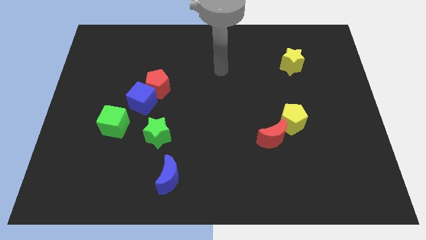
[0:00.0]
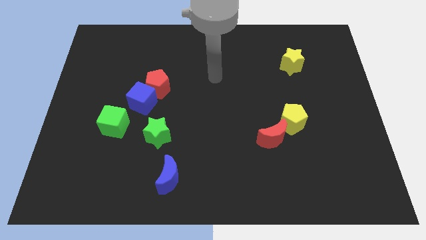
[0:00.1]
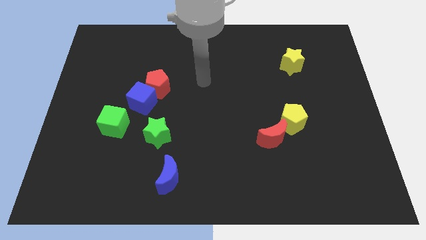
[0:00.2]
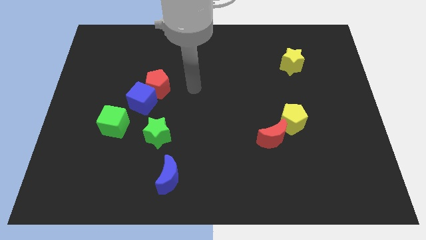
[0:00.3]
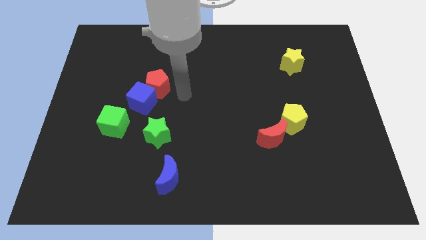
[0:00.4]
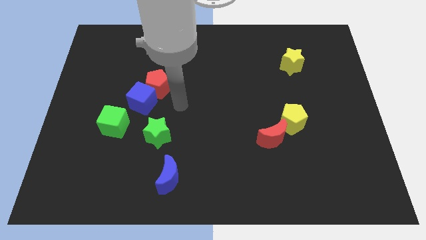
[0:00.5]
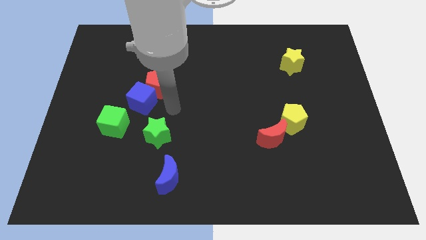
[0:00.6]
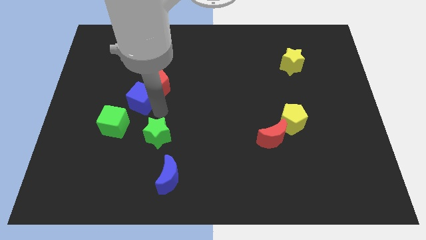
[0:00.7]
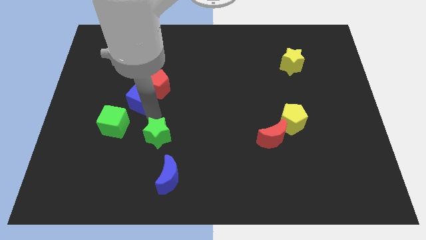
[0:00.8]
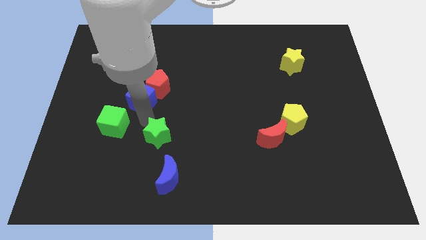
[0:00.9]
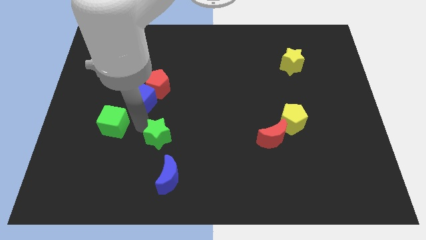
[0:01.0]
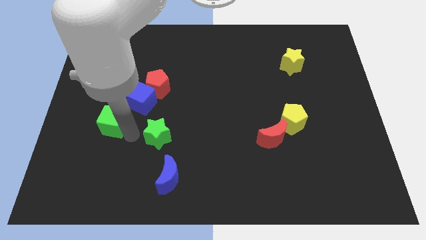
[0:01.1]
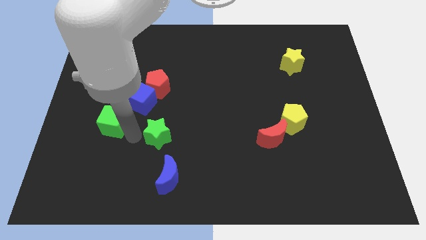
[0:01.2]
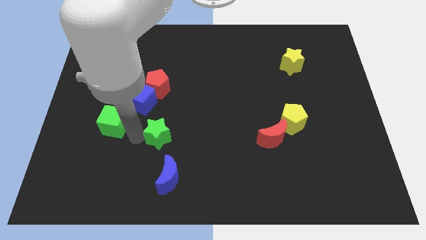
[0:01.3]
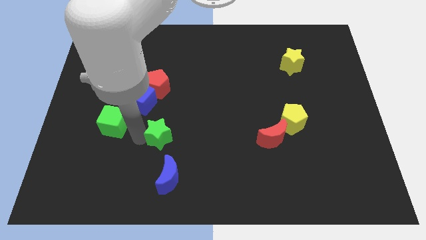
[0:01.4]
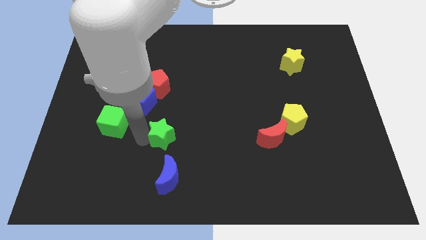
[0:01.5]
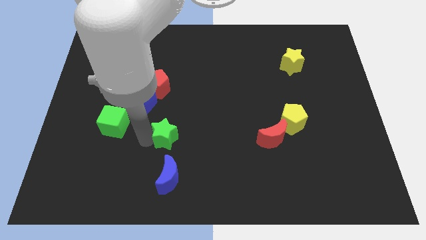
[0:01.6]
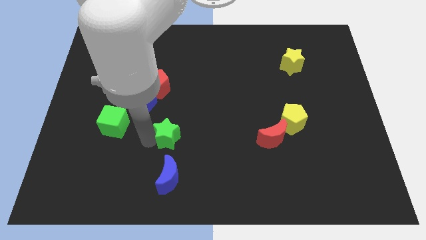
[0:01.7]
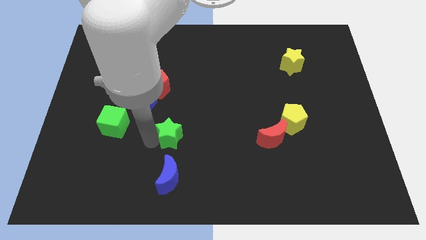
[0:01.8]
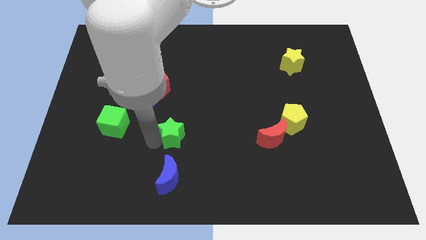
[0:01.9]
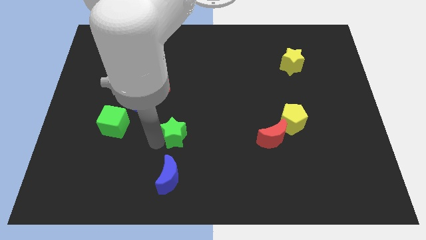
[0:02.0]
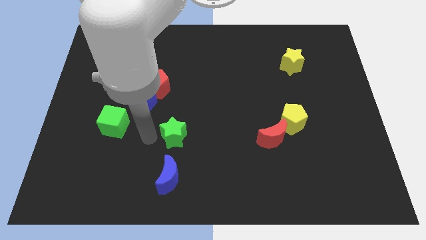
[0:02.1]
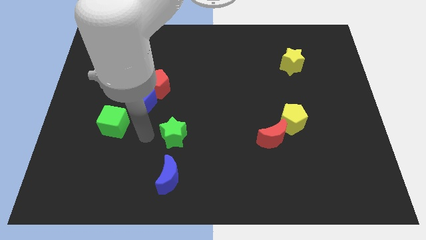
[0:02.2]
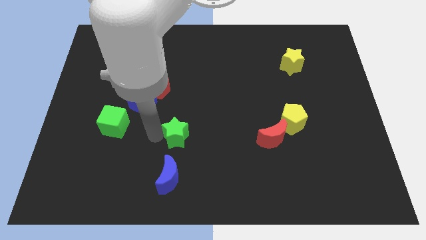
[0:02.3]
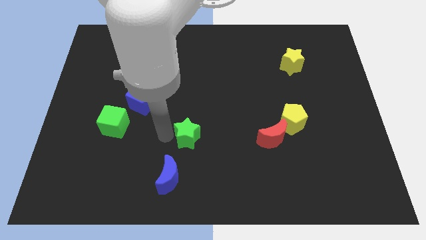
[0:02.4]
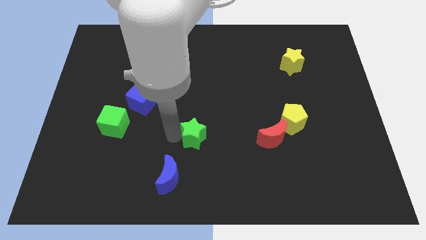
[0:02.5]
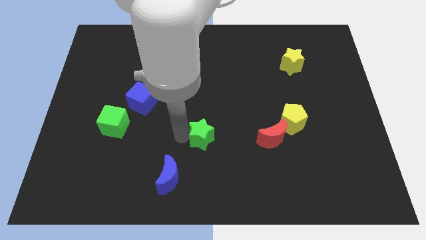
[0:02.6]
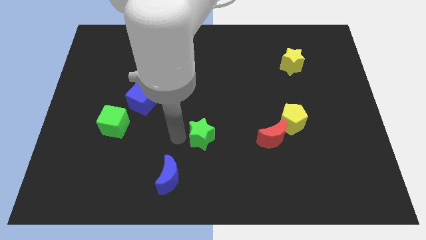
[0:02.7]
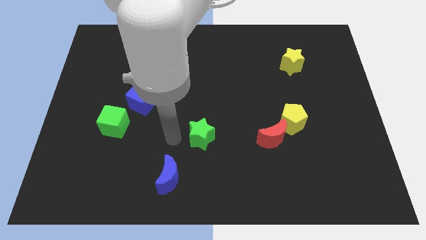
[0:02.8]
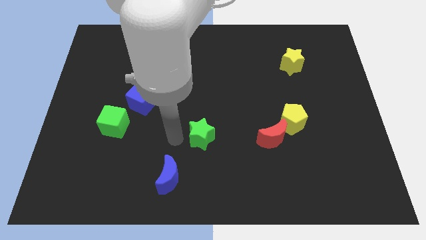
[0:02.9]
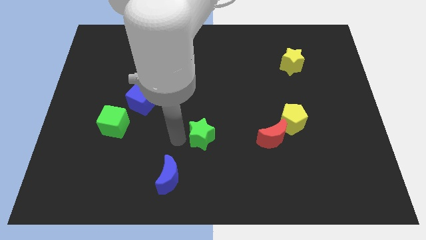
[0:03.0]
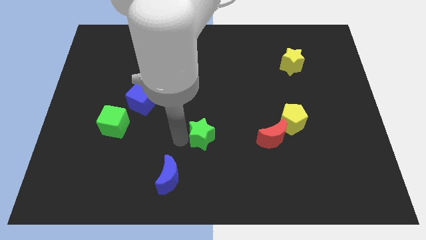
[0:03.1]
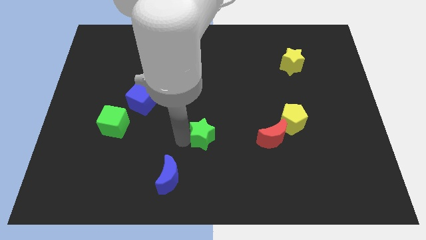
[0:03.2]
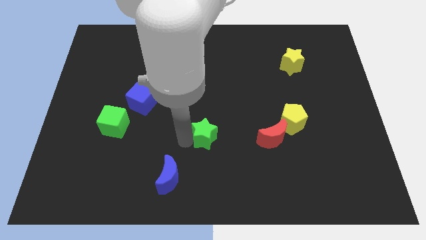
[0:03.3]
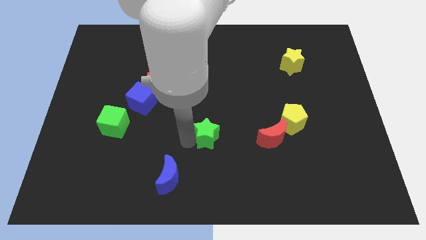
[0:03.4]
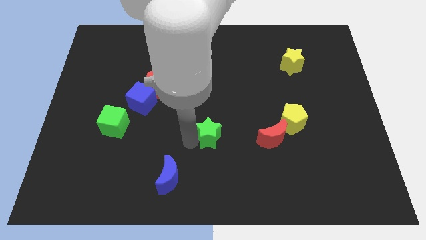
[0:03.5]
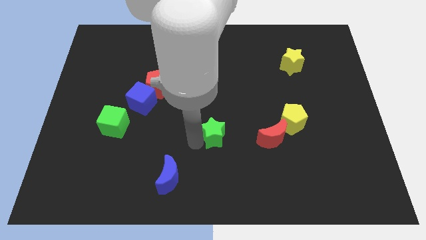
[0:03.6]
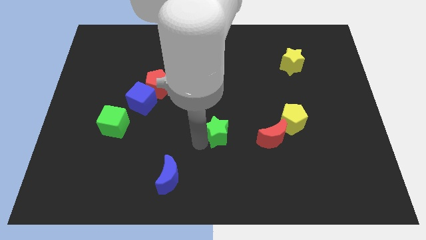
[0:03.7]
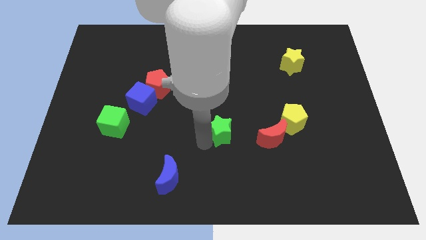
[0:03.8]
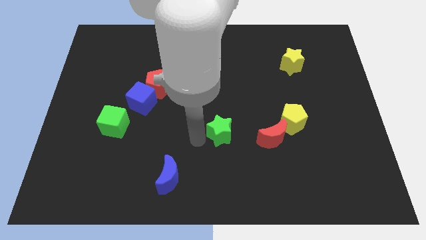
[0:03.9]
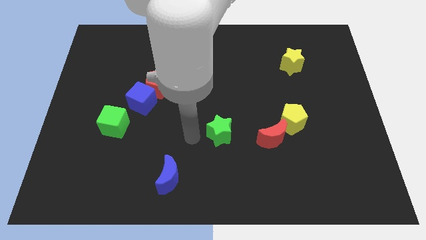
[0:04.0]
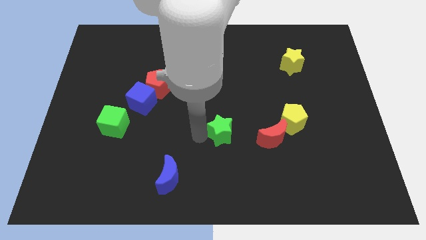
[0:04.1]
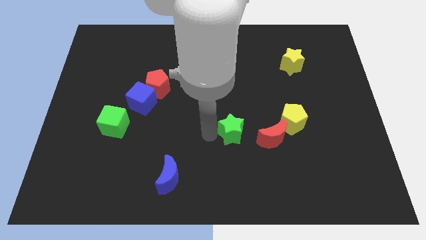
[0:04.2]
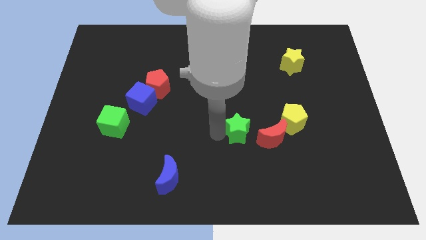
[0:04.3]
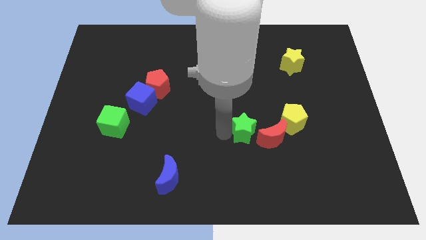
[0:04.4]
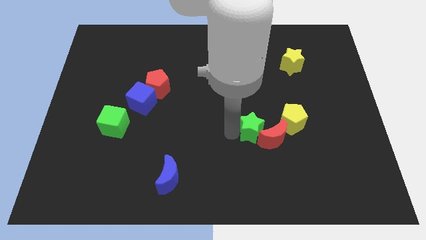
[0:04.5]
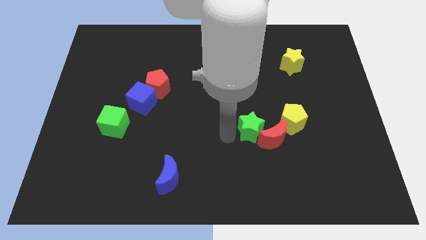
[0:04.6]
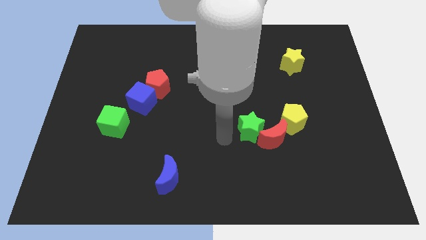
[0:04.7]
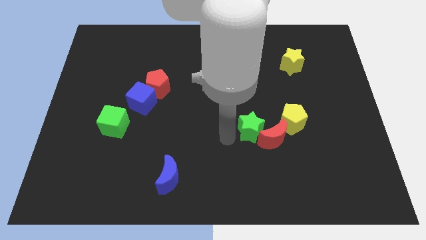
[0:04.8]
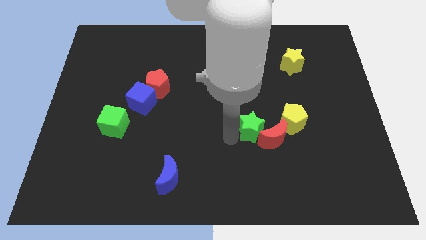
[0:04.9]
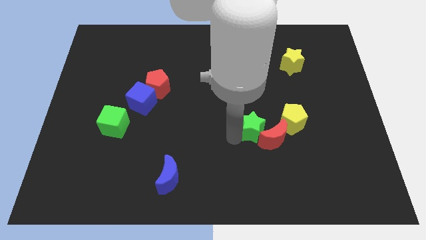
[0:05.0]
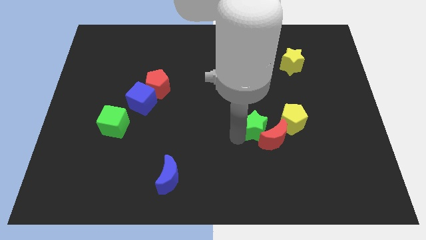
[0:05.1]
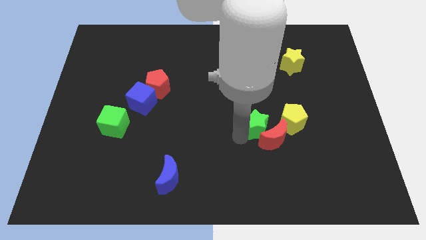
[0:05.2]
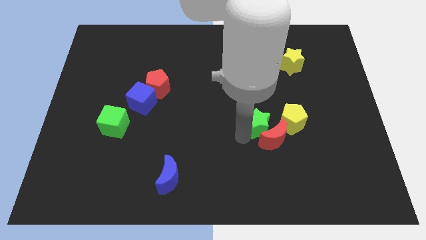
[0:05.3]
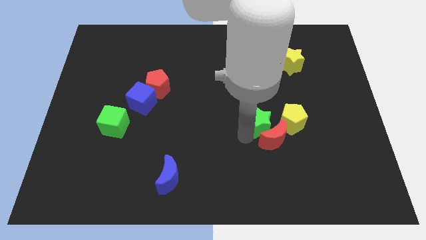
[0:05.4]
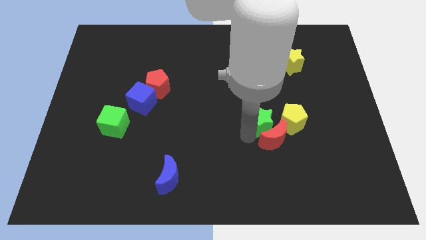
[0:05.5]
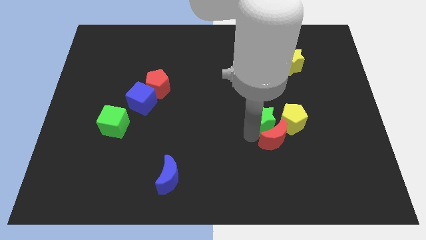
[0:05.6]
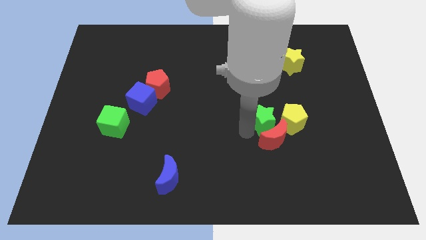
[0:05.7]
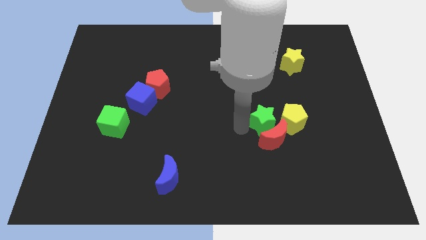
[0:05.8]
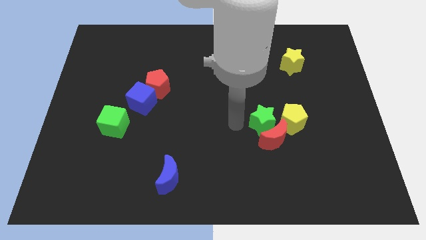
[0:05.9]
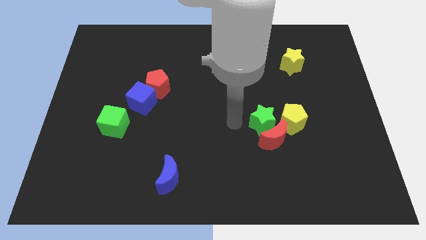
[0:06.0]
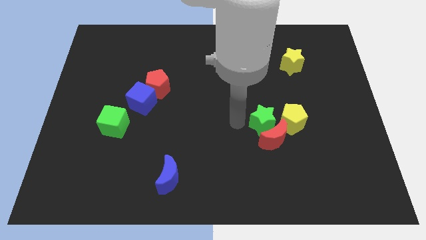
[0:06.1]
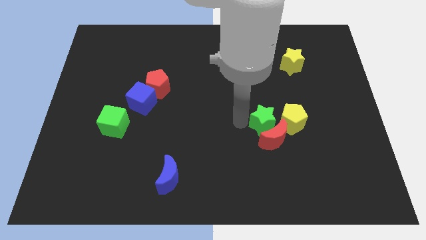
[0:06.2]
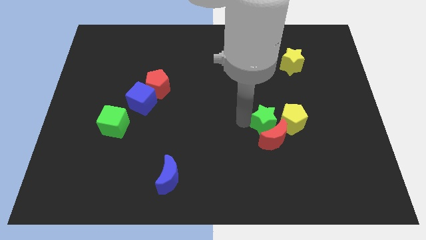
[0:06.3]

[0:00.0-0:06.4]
move the green star next to the yellow pentagon

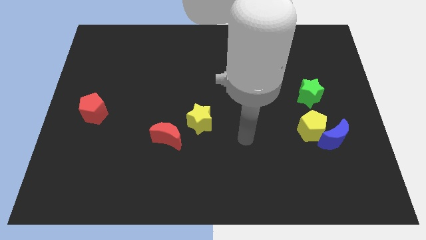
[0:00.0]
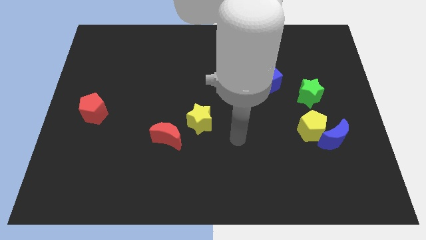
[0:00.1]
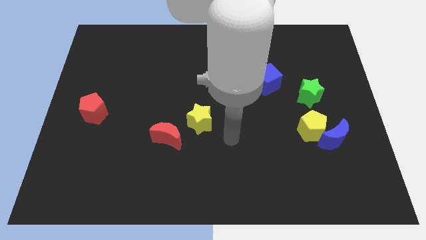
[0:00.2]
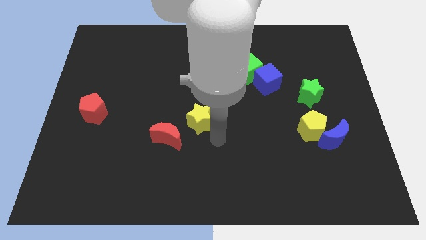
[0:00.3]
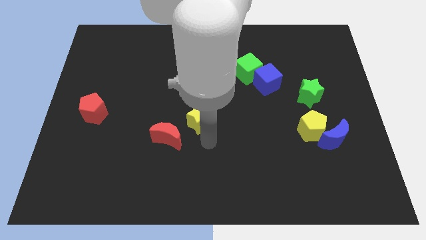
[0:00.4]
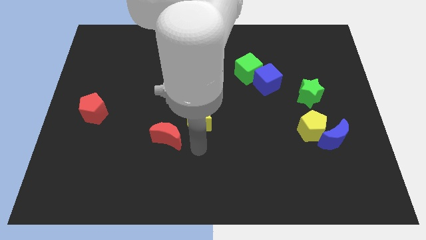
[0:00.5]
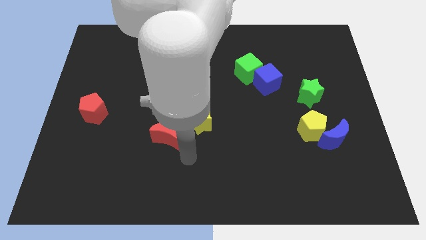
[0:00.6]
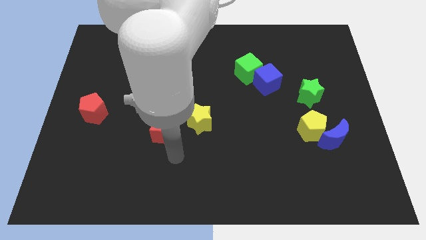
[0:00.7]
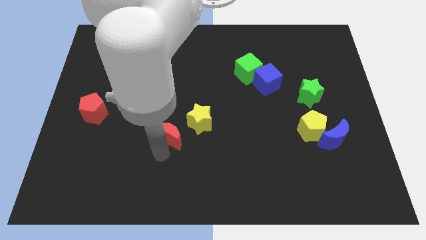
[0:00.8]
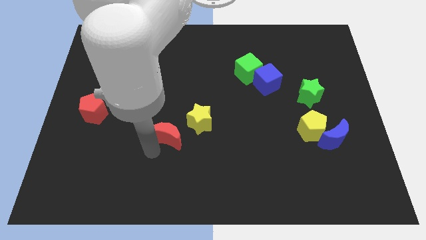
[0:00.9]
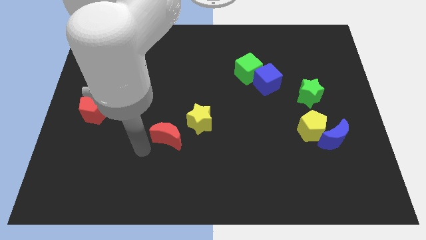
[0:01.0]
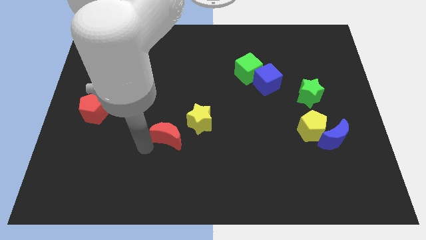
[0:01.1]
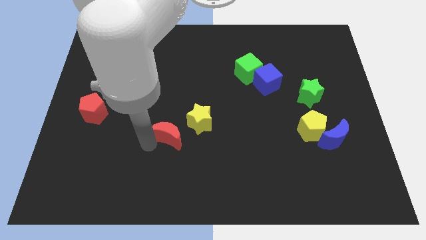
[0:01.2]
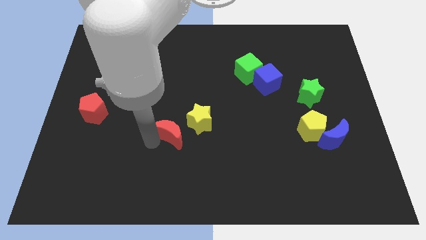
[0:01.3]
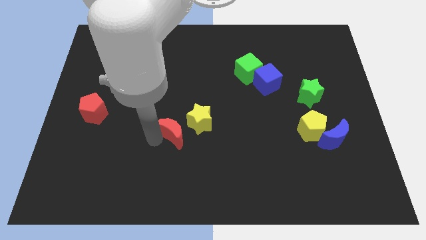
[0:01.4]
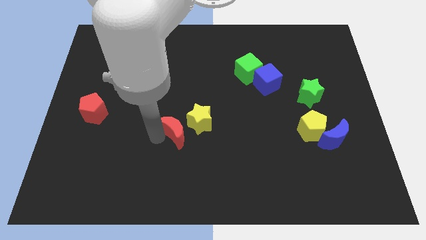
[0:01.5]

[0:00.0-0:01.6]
push the red moon to the yellow star
